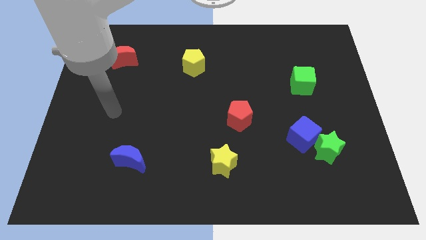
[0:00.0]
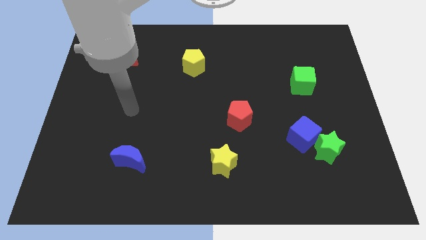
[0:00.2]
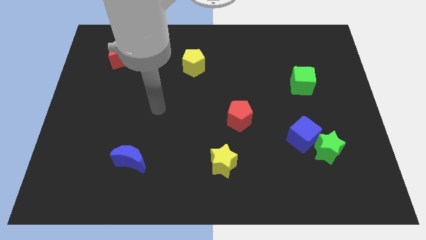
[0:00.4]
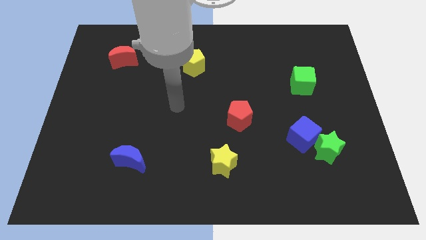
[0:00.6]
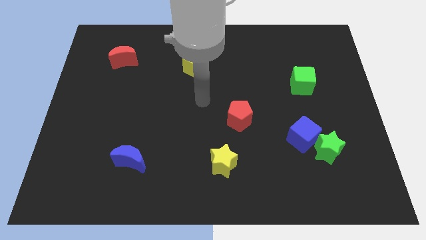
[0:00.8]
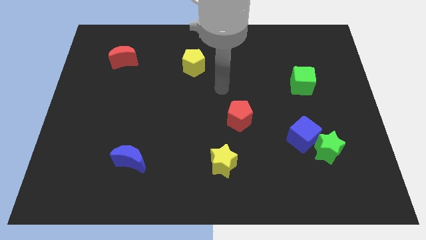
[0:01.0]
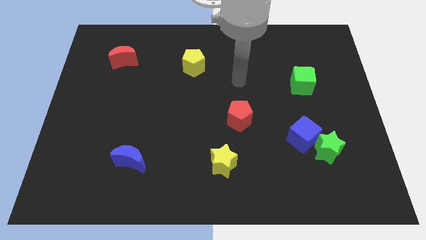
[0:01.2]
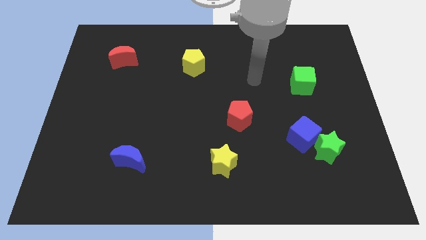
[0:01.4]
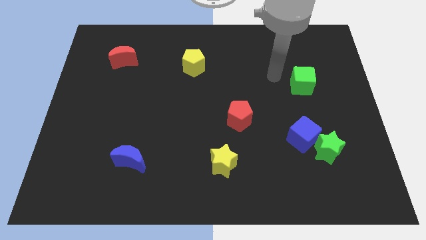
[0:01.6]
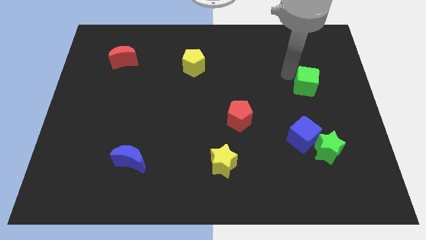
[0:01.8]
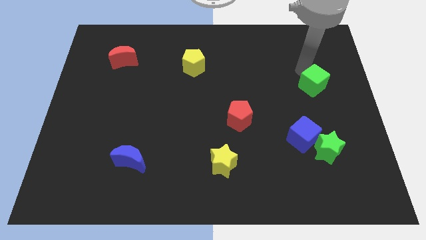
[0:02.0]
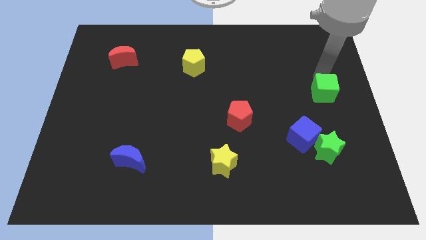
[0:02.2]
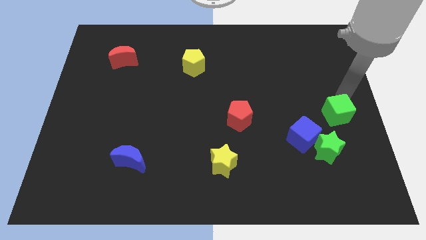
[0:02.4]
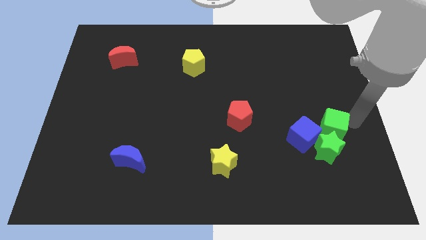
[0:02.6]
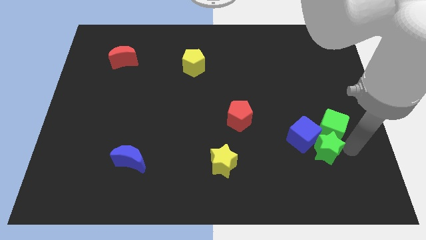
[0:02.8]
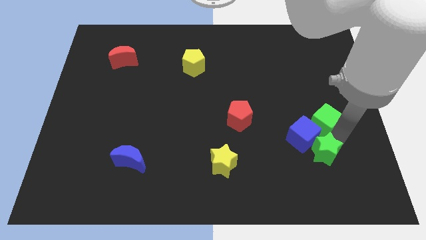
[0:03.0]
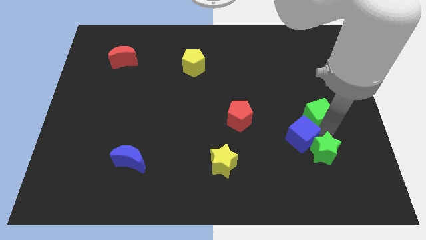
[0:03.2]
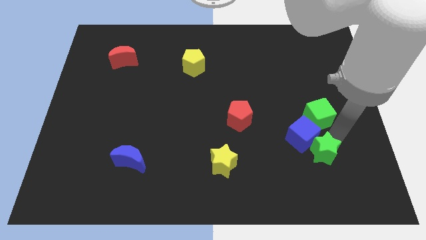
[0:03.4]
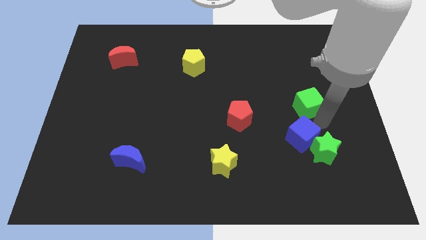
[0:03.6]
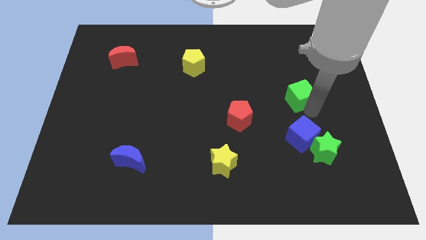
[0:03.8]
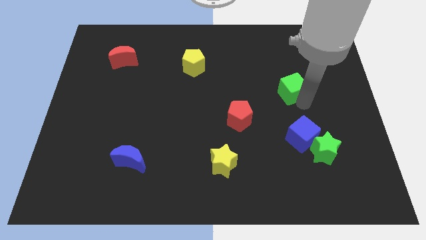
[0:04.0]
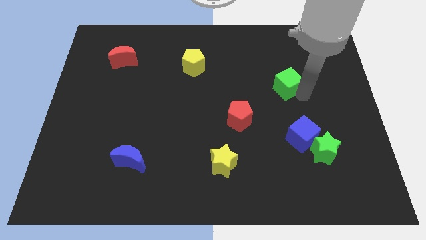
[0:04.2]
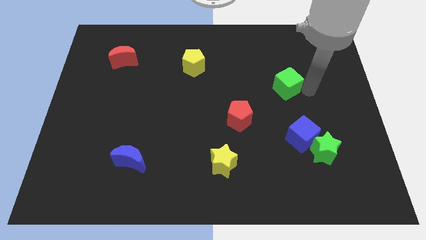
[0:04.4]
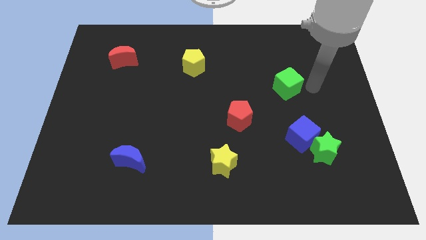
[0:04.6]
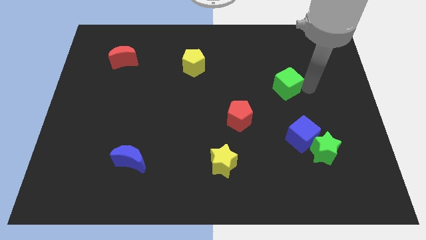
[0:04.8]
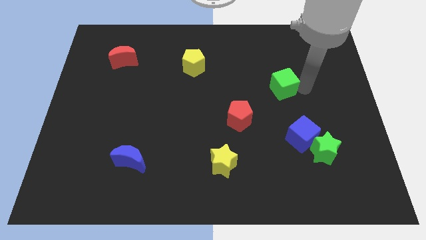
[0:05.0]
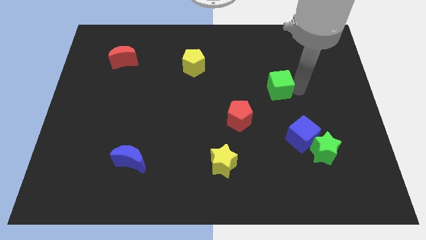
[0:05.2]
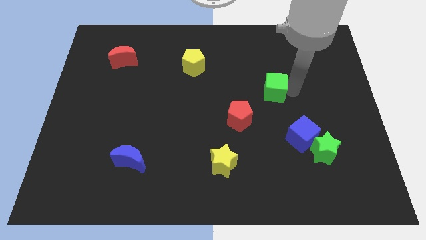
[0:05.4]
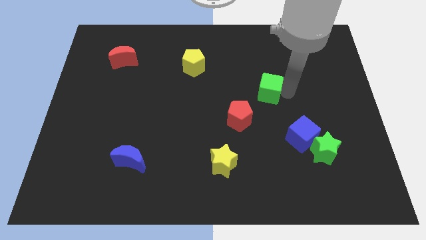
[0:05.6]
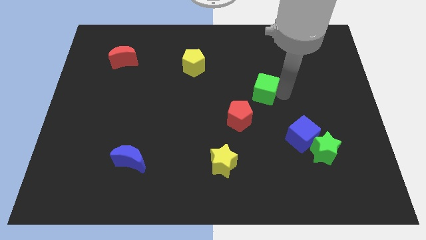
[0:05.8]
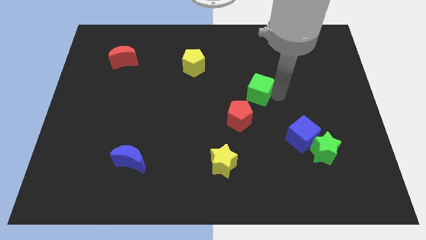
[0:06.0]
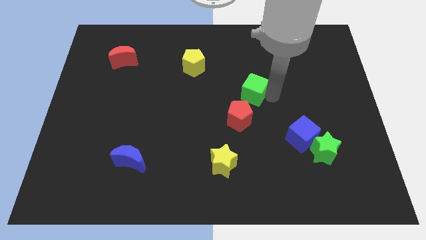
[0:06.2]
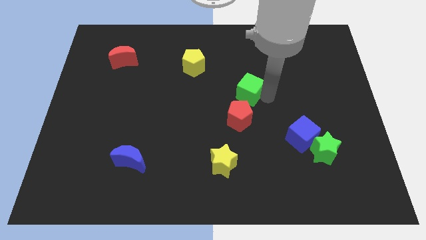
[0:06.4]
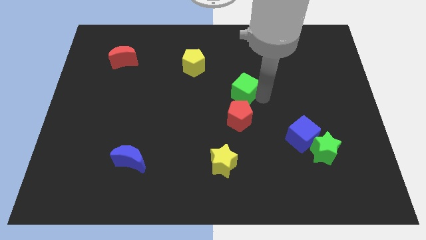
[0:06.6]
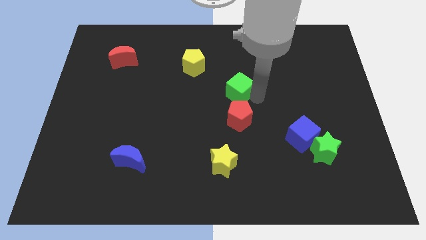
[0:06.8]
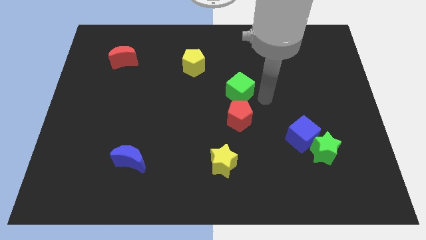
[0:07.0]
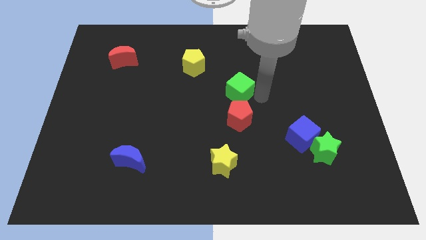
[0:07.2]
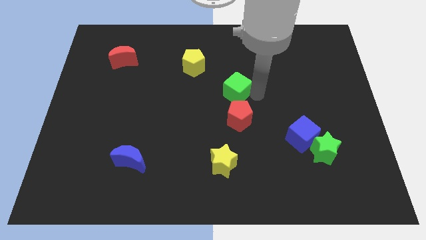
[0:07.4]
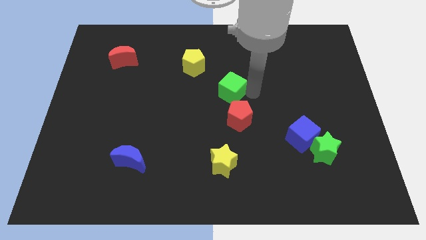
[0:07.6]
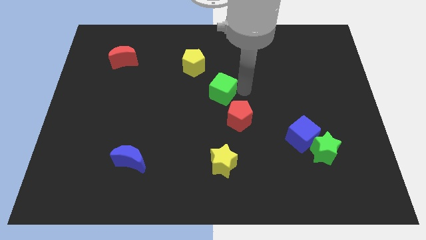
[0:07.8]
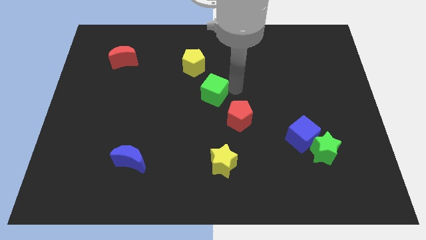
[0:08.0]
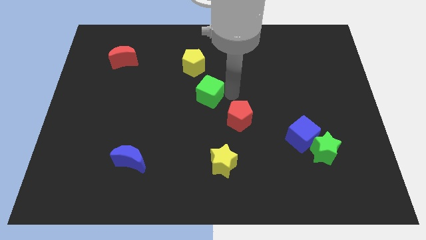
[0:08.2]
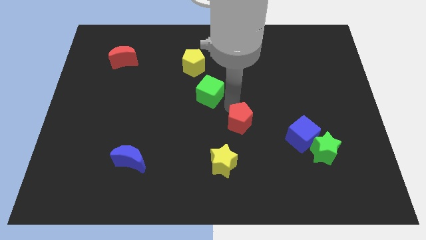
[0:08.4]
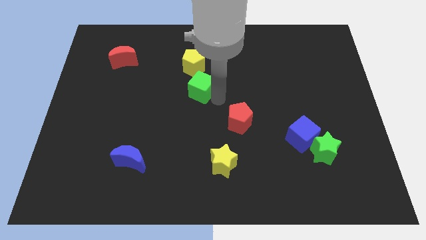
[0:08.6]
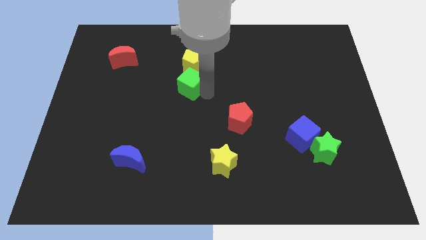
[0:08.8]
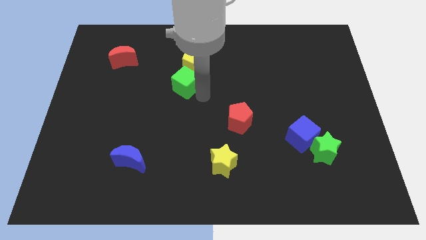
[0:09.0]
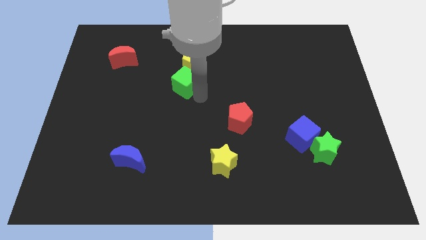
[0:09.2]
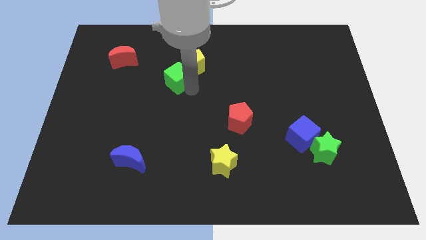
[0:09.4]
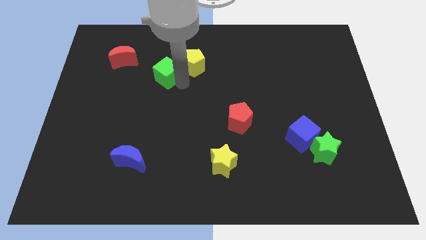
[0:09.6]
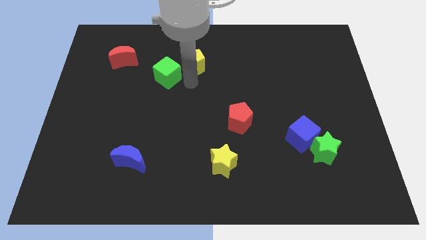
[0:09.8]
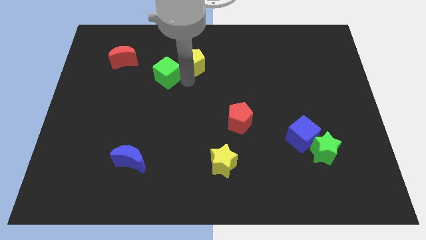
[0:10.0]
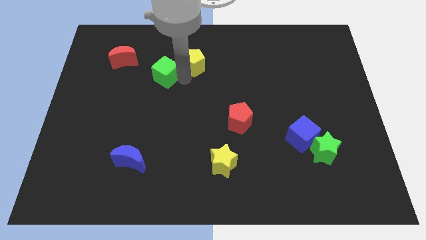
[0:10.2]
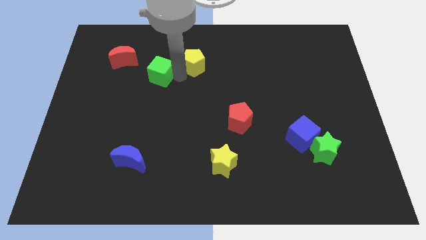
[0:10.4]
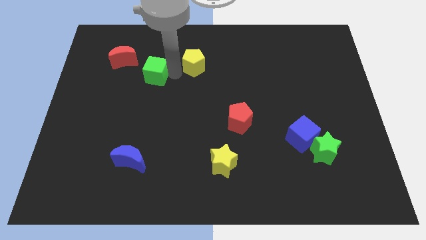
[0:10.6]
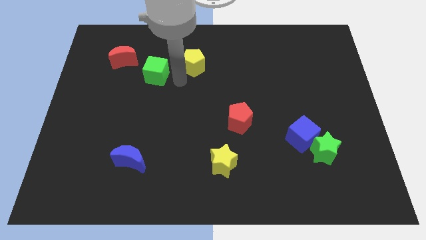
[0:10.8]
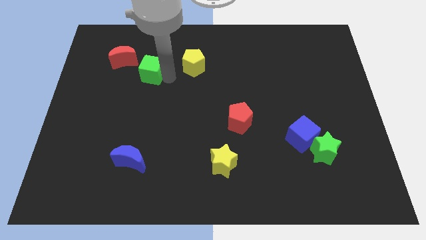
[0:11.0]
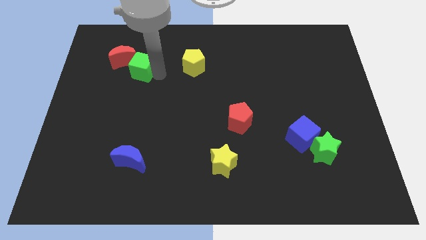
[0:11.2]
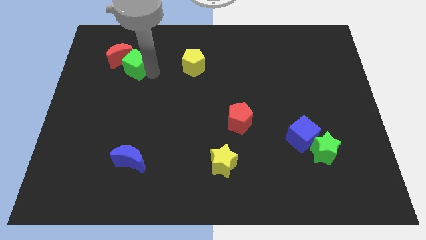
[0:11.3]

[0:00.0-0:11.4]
push the green cube next to the red moon

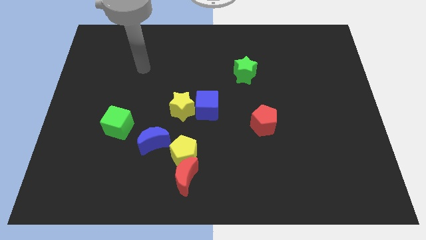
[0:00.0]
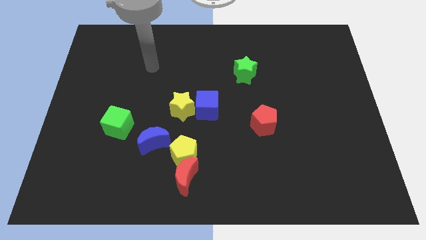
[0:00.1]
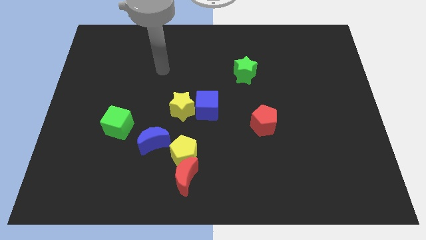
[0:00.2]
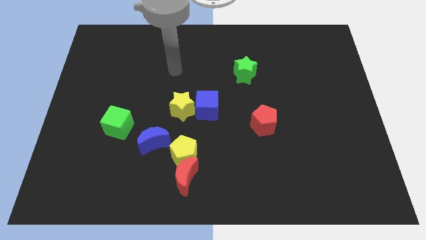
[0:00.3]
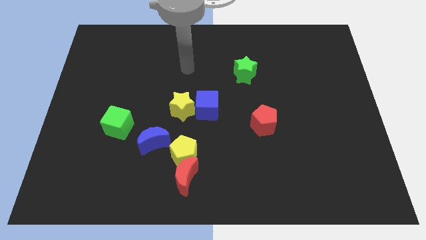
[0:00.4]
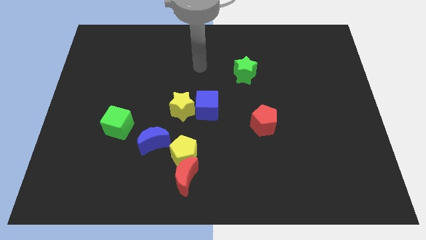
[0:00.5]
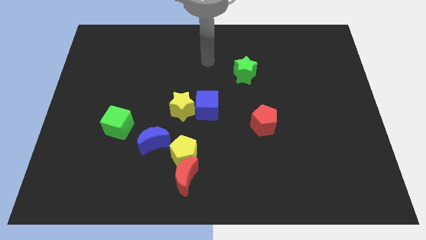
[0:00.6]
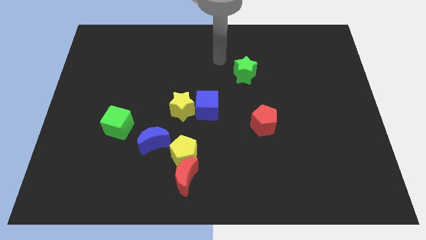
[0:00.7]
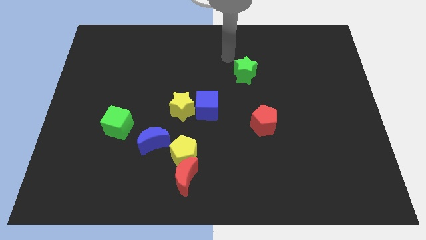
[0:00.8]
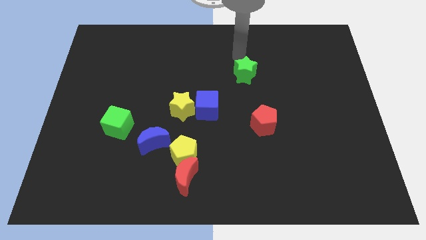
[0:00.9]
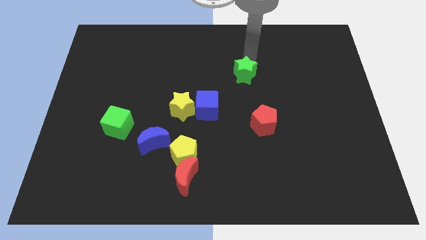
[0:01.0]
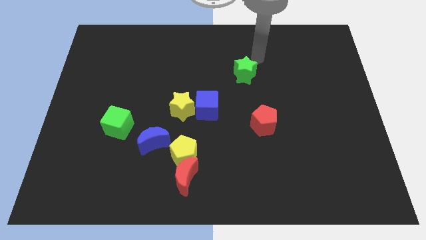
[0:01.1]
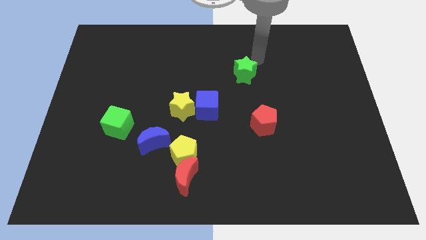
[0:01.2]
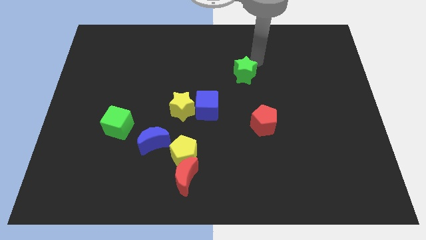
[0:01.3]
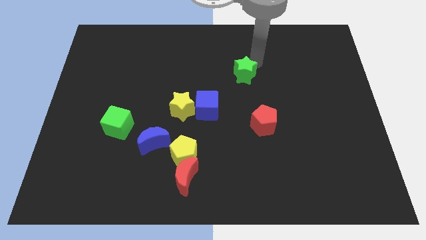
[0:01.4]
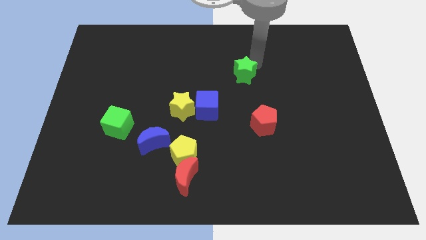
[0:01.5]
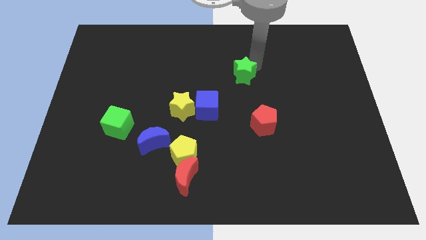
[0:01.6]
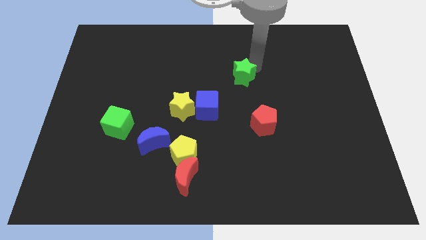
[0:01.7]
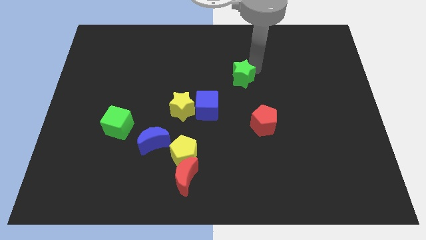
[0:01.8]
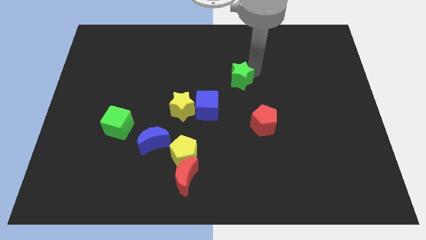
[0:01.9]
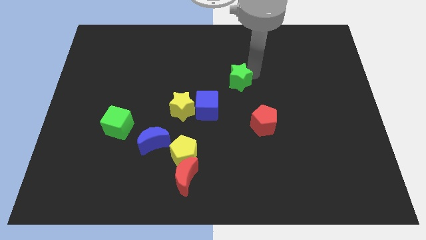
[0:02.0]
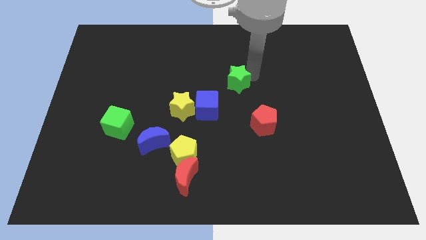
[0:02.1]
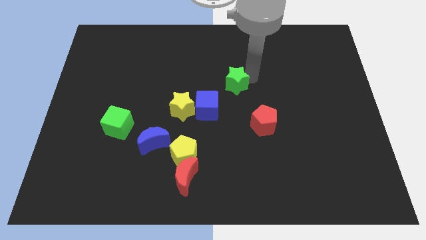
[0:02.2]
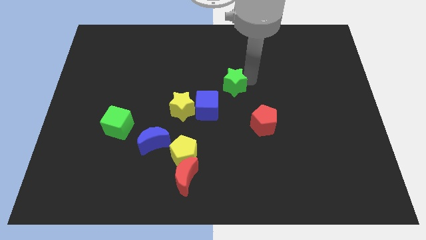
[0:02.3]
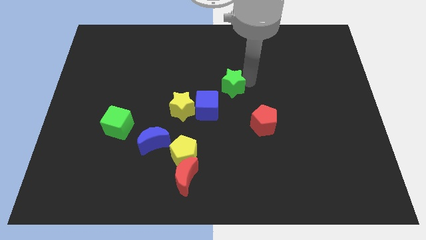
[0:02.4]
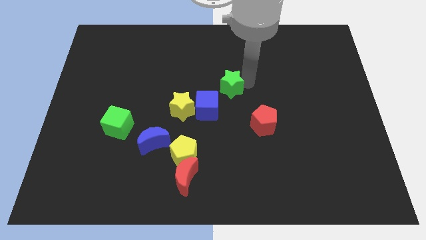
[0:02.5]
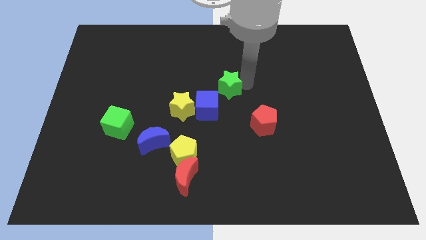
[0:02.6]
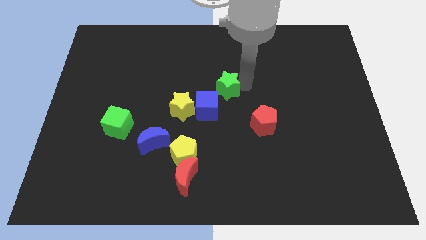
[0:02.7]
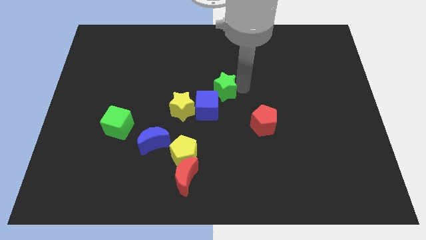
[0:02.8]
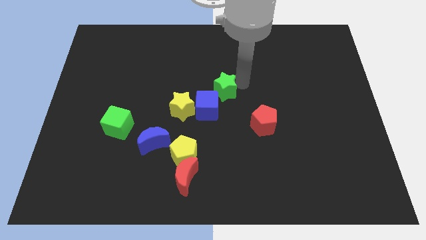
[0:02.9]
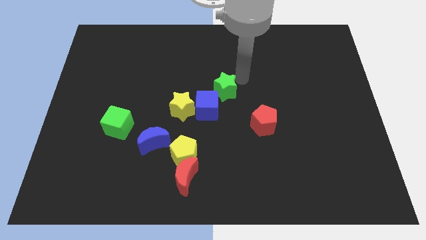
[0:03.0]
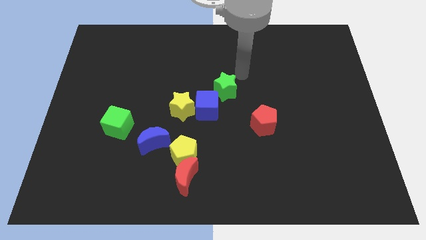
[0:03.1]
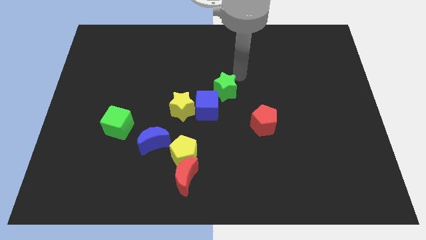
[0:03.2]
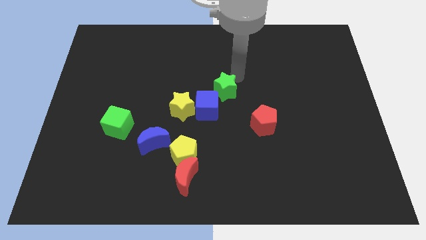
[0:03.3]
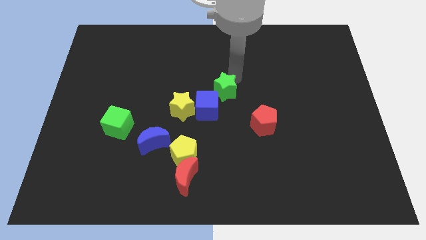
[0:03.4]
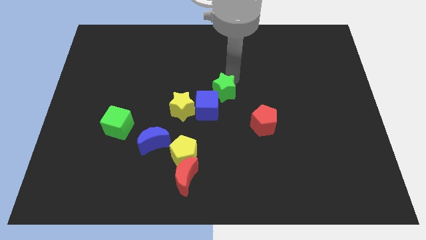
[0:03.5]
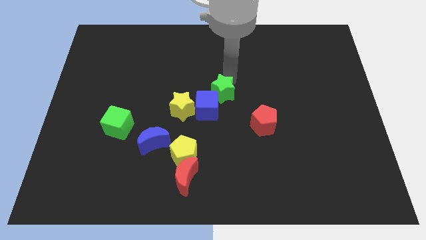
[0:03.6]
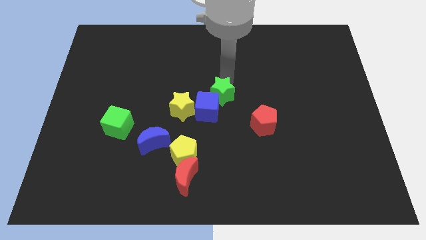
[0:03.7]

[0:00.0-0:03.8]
put the green star close to the blue cube
